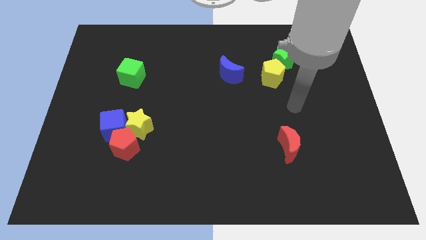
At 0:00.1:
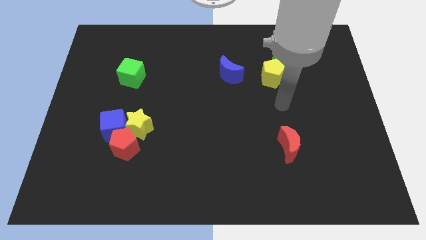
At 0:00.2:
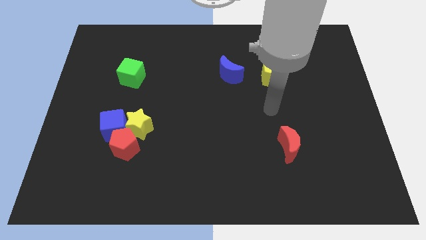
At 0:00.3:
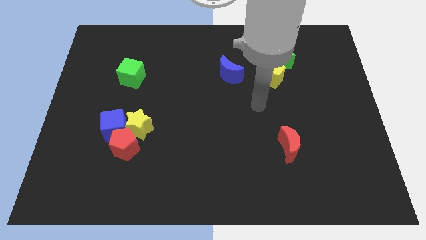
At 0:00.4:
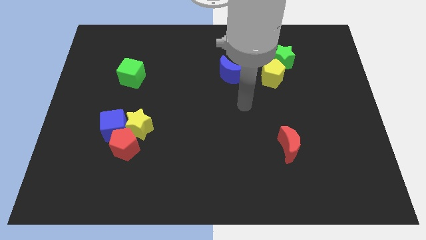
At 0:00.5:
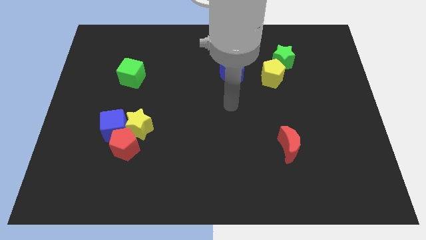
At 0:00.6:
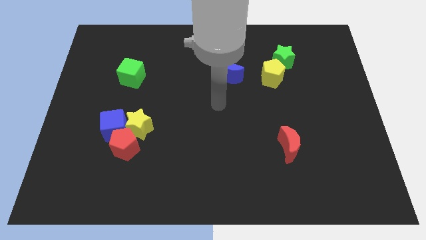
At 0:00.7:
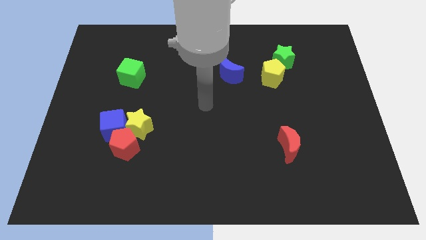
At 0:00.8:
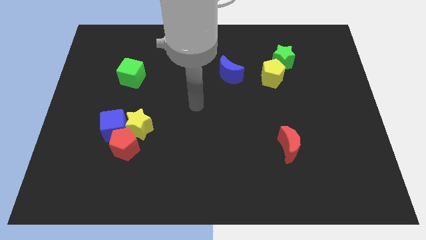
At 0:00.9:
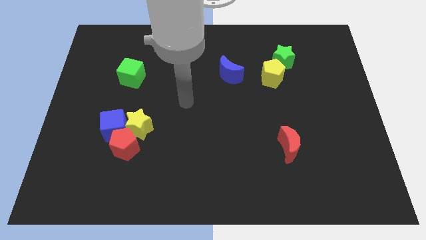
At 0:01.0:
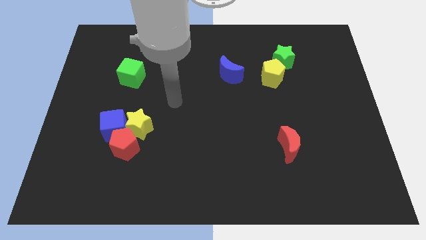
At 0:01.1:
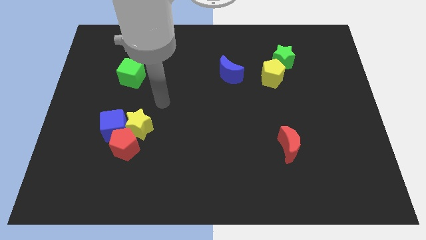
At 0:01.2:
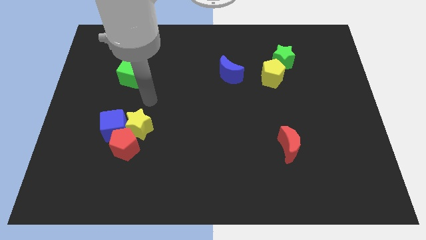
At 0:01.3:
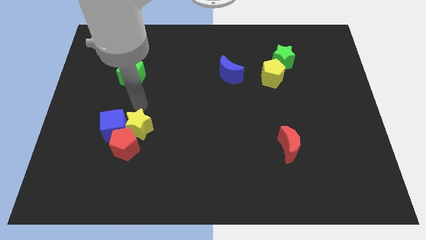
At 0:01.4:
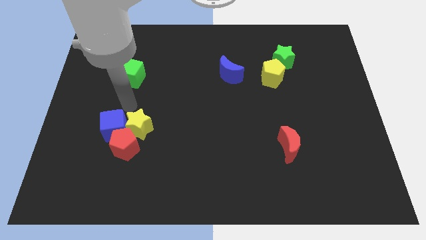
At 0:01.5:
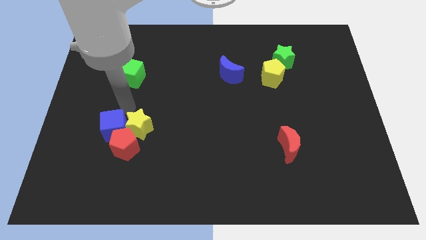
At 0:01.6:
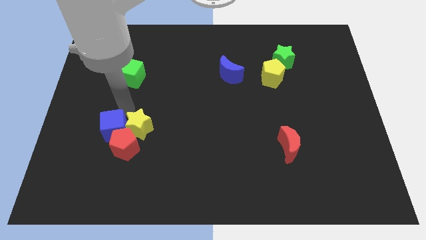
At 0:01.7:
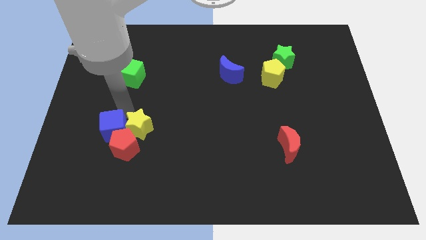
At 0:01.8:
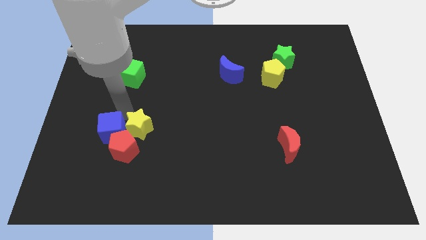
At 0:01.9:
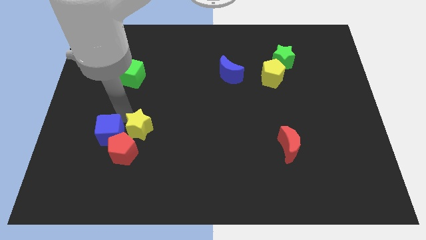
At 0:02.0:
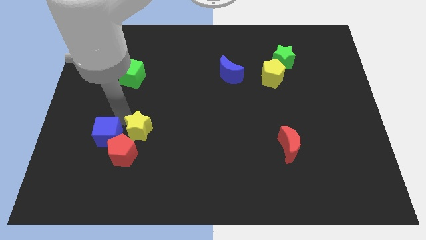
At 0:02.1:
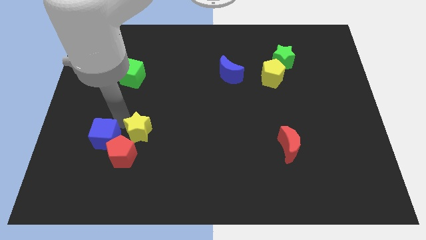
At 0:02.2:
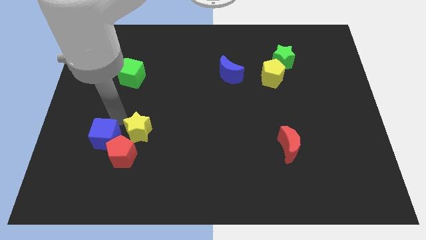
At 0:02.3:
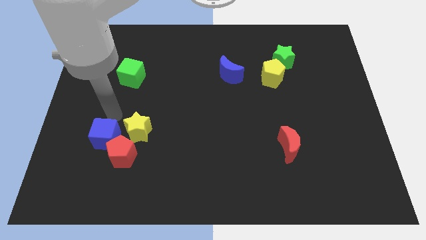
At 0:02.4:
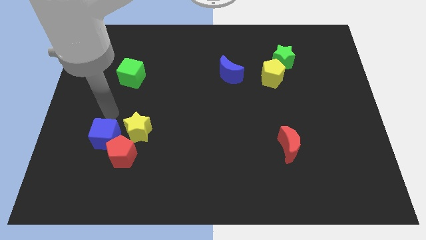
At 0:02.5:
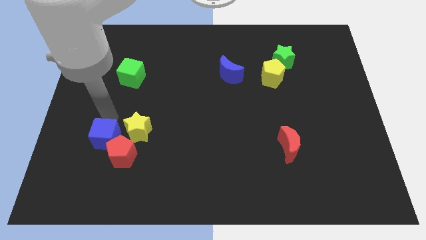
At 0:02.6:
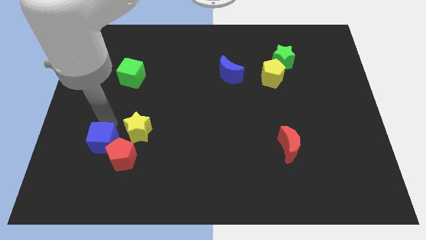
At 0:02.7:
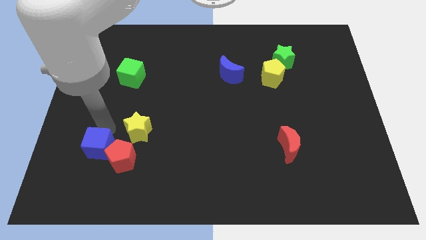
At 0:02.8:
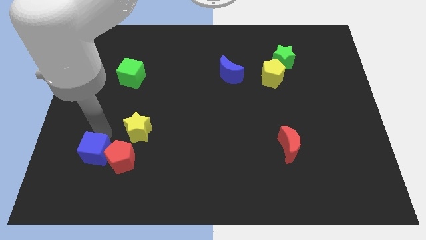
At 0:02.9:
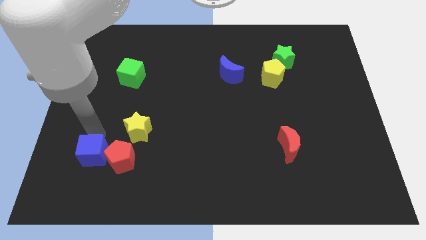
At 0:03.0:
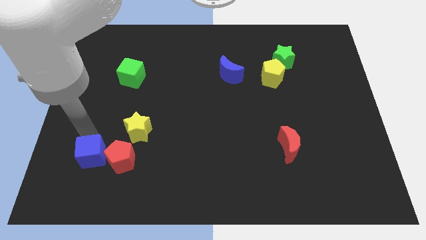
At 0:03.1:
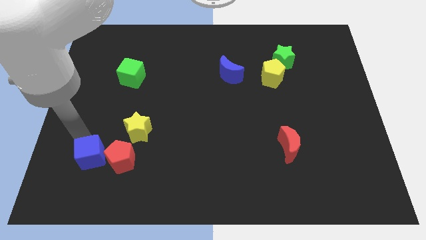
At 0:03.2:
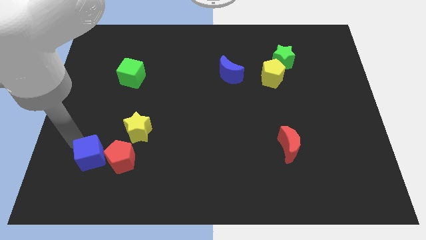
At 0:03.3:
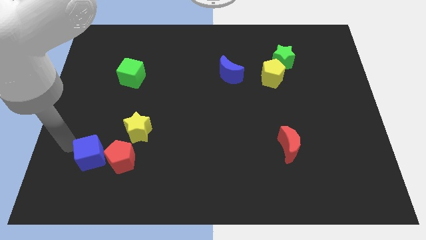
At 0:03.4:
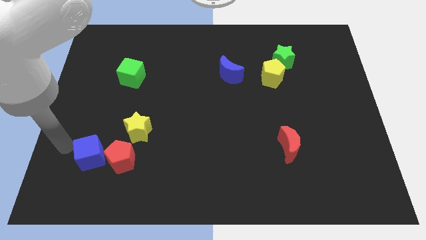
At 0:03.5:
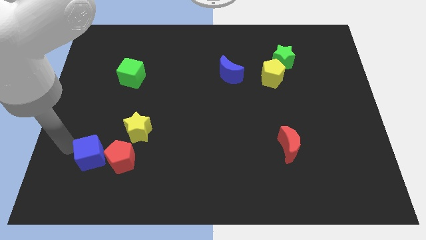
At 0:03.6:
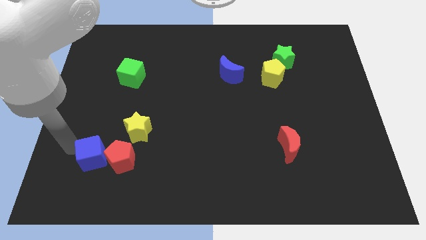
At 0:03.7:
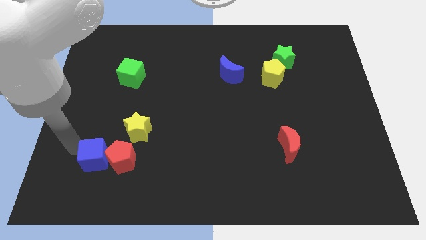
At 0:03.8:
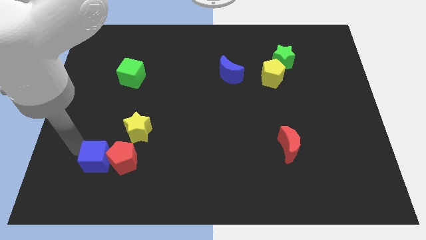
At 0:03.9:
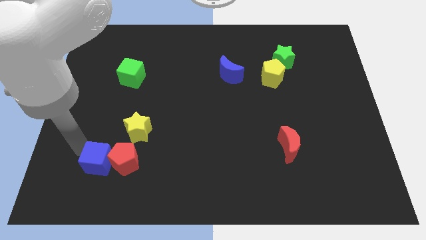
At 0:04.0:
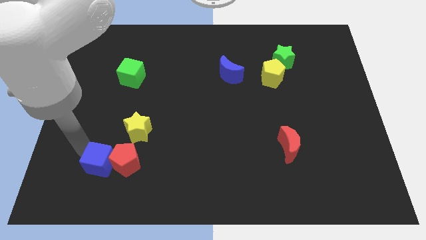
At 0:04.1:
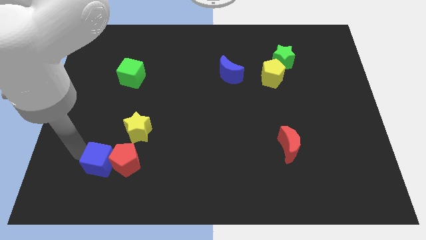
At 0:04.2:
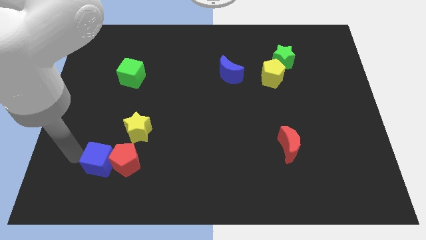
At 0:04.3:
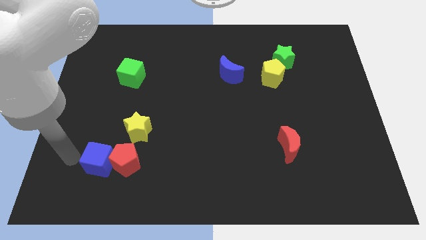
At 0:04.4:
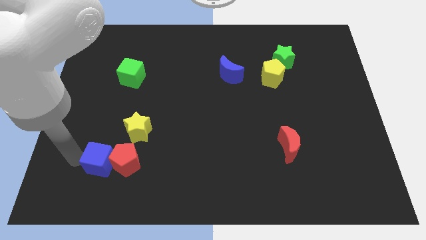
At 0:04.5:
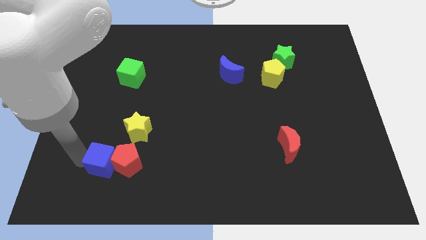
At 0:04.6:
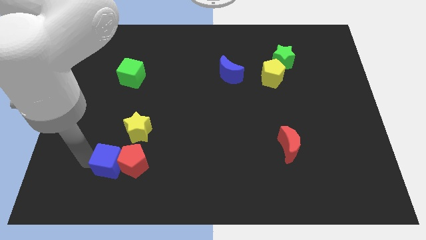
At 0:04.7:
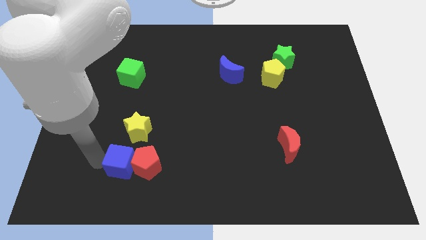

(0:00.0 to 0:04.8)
move the blue cube somewhat downwards and right diagonally

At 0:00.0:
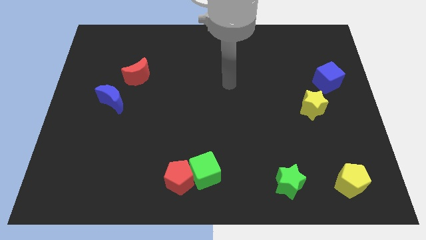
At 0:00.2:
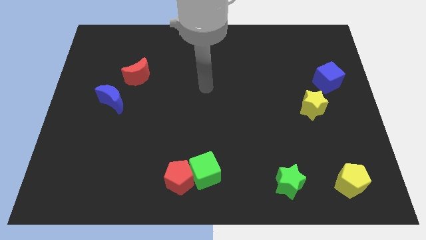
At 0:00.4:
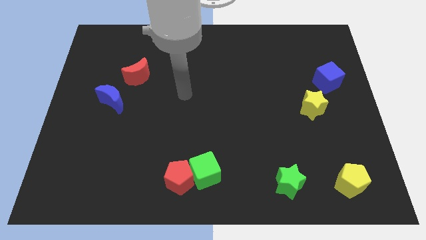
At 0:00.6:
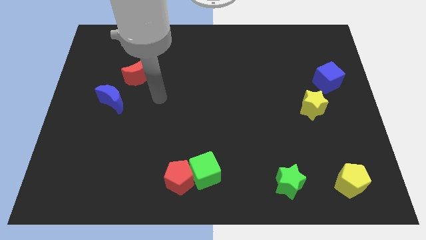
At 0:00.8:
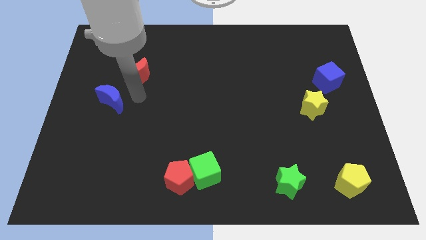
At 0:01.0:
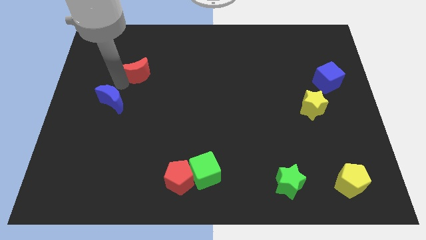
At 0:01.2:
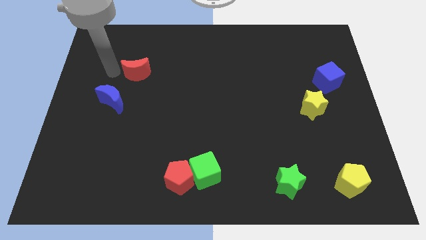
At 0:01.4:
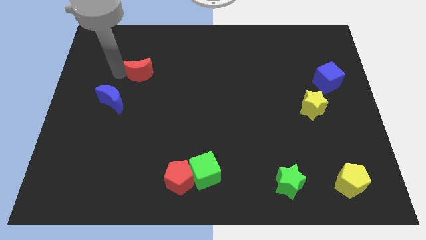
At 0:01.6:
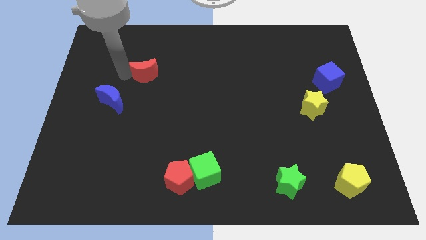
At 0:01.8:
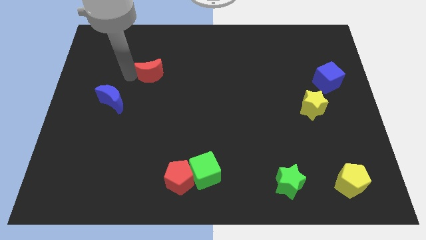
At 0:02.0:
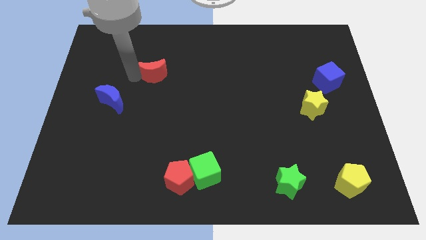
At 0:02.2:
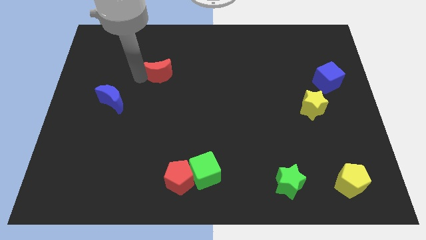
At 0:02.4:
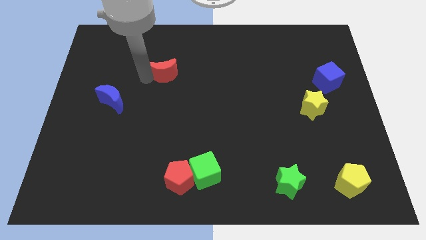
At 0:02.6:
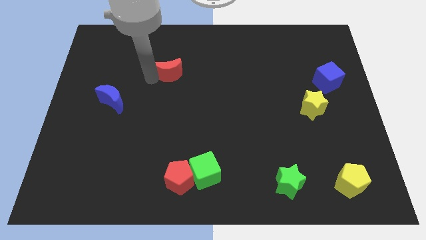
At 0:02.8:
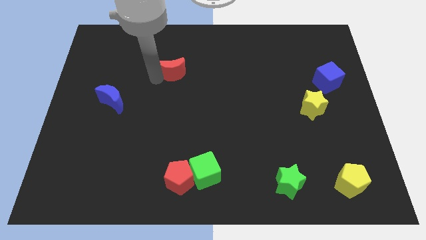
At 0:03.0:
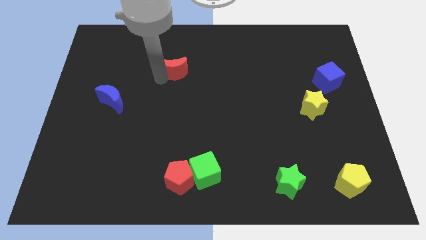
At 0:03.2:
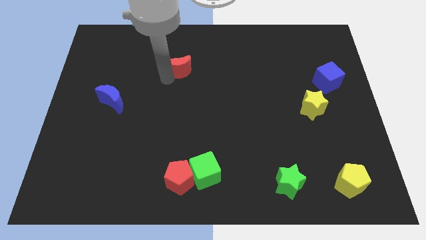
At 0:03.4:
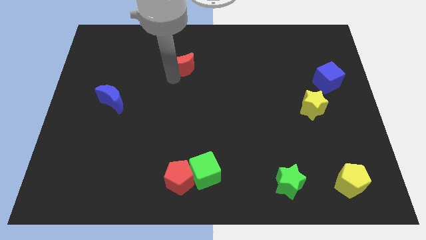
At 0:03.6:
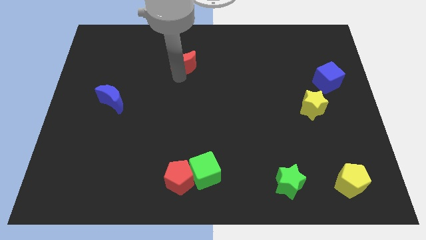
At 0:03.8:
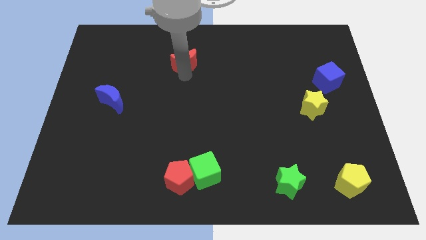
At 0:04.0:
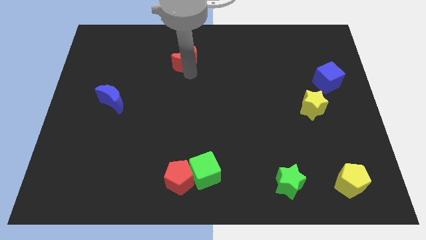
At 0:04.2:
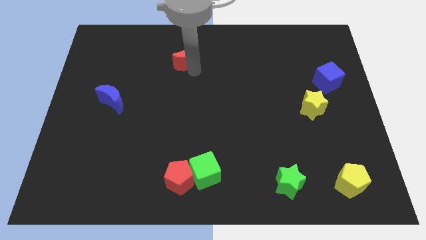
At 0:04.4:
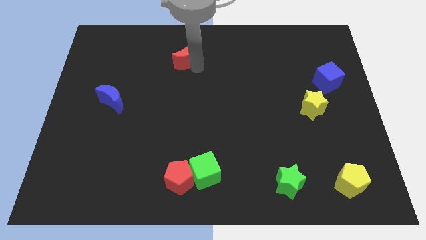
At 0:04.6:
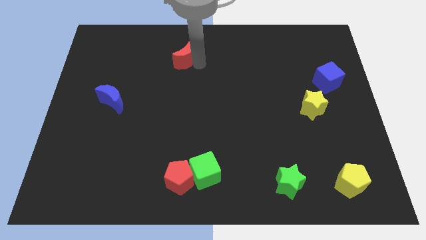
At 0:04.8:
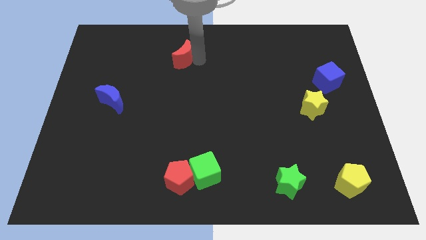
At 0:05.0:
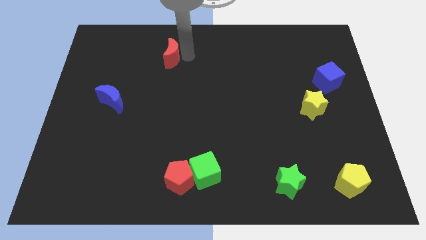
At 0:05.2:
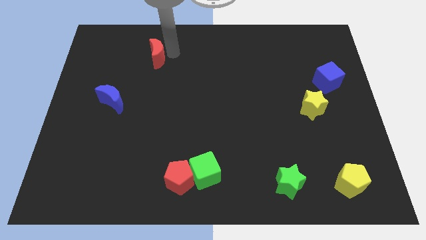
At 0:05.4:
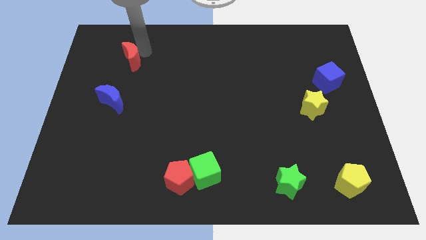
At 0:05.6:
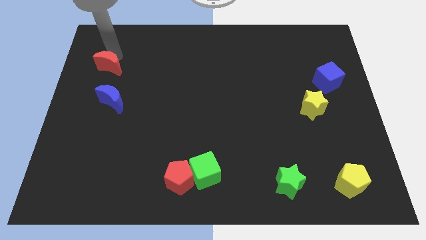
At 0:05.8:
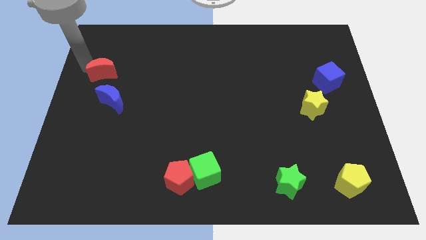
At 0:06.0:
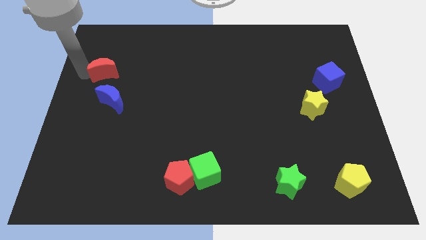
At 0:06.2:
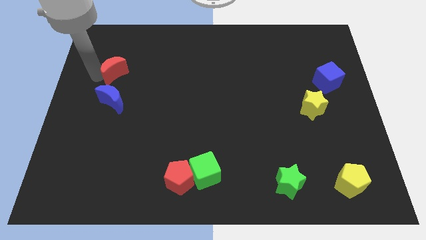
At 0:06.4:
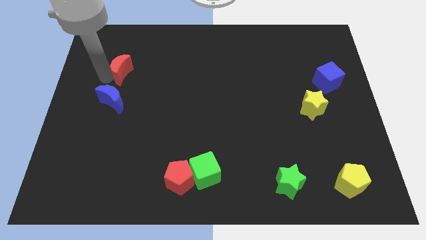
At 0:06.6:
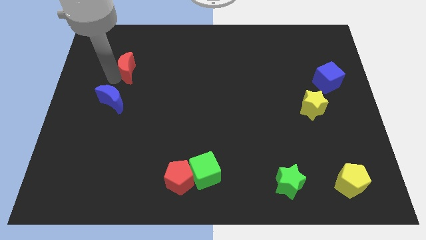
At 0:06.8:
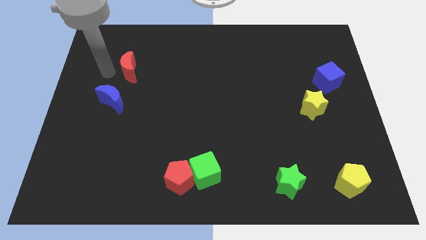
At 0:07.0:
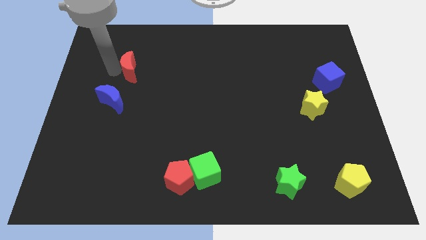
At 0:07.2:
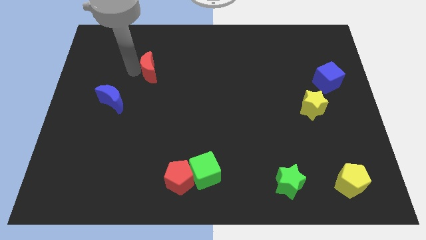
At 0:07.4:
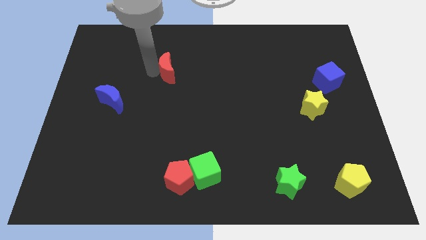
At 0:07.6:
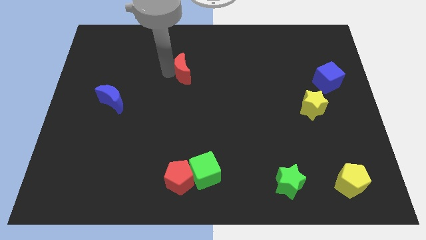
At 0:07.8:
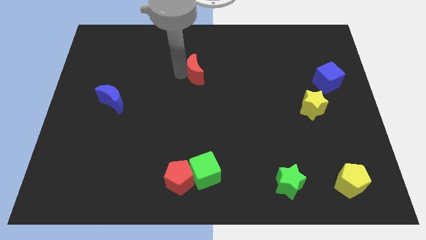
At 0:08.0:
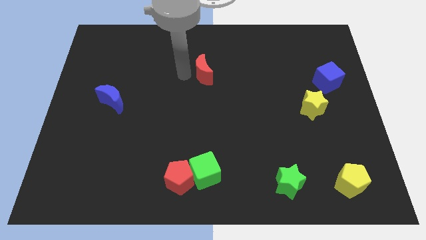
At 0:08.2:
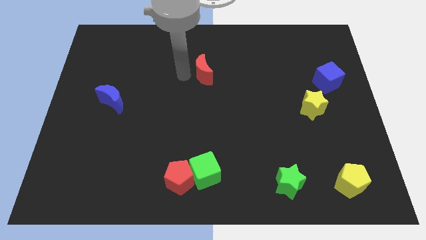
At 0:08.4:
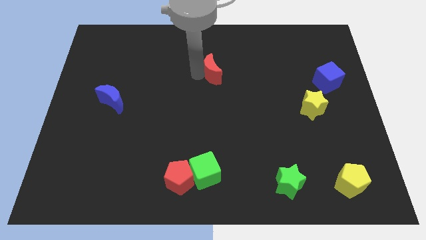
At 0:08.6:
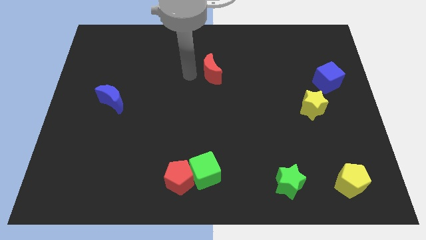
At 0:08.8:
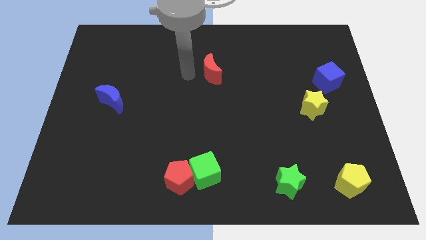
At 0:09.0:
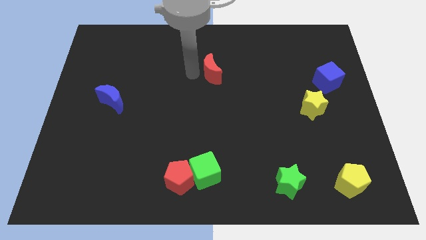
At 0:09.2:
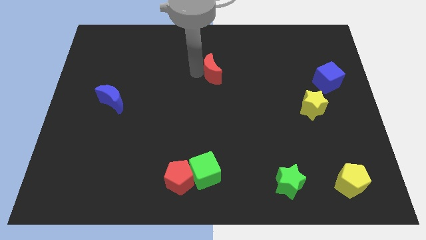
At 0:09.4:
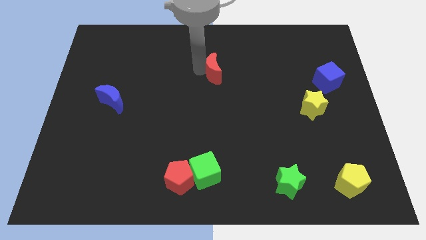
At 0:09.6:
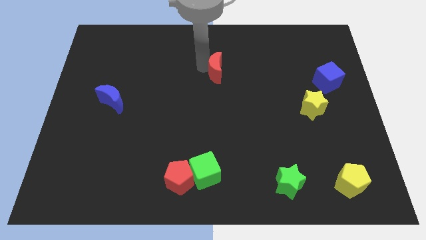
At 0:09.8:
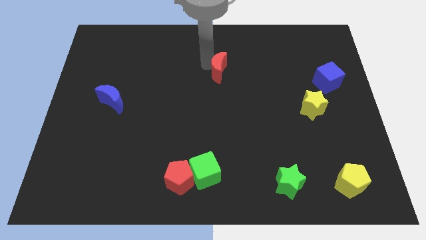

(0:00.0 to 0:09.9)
move the red moon to the right
